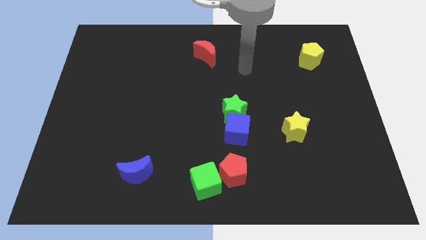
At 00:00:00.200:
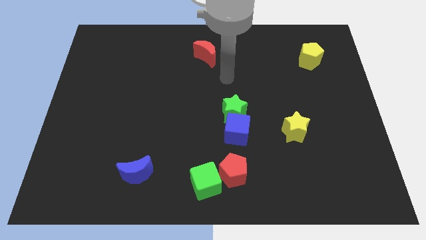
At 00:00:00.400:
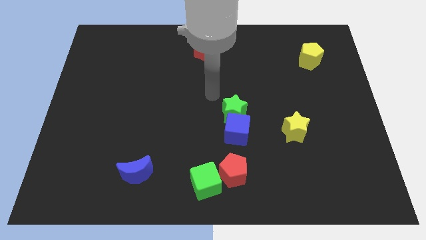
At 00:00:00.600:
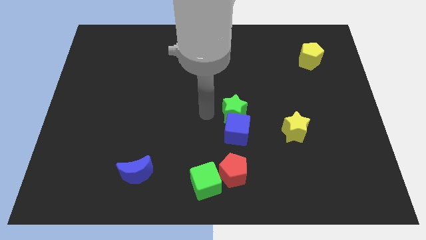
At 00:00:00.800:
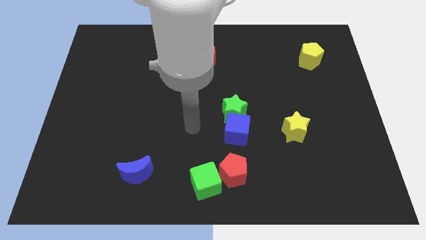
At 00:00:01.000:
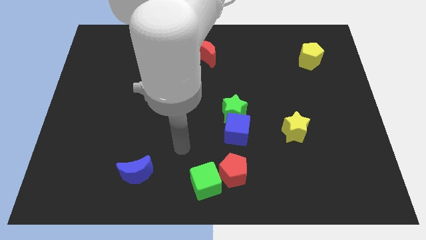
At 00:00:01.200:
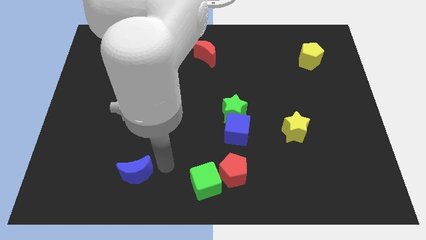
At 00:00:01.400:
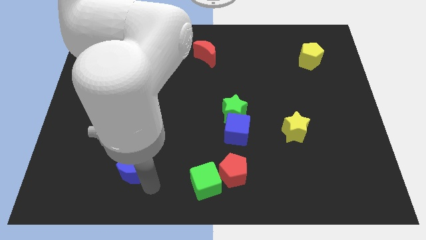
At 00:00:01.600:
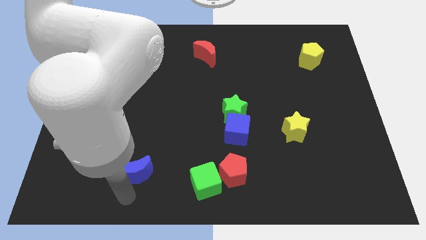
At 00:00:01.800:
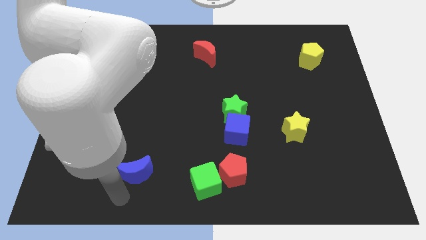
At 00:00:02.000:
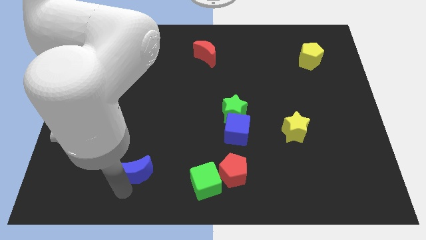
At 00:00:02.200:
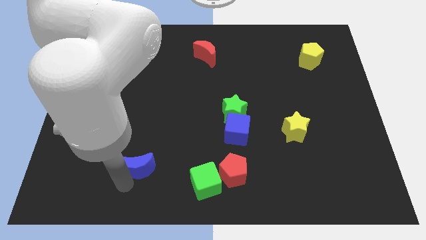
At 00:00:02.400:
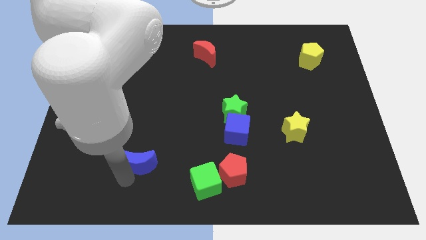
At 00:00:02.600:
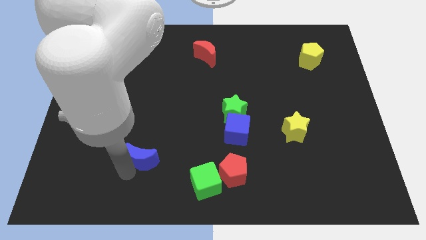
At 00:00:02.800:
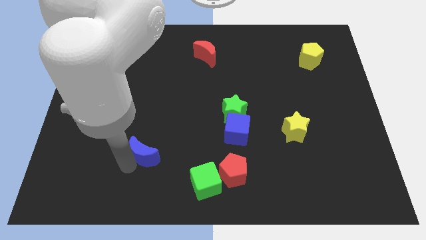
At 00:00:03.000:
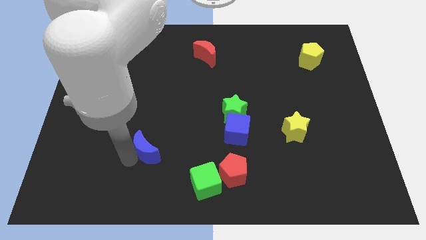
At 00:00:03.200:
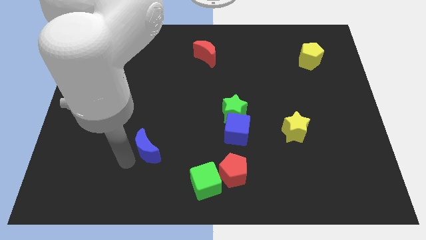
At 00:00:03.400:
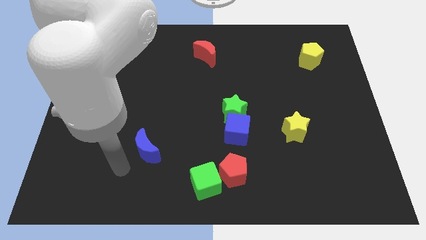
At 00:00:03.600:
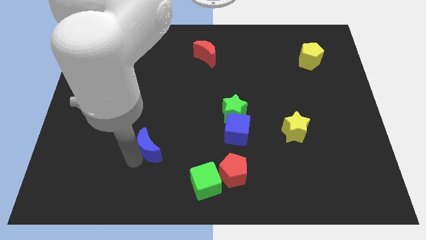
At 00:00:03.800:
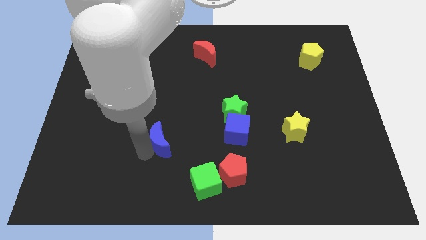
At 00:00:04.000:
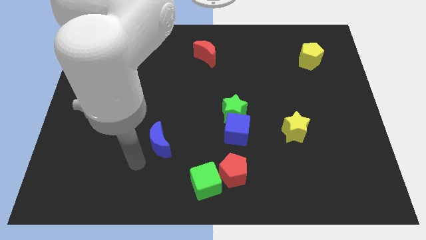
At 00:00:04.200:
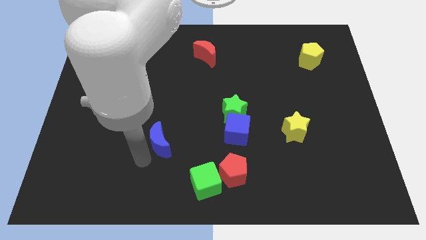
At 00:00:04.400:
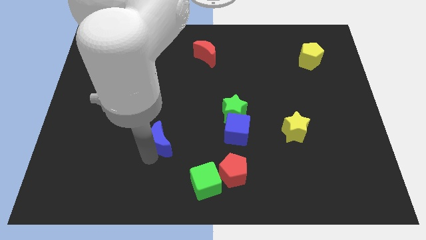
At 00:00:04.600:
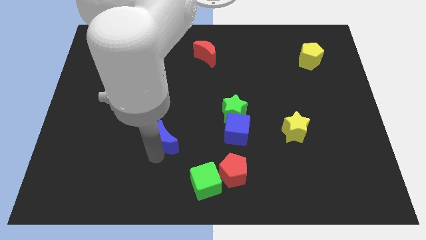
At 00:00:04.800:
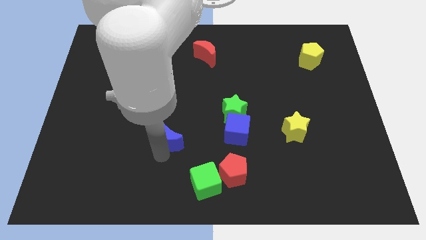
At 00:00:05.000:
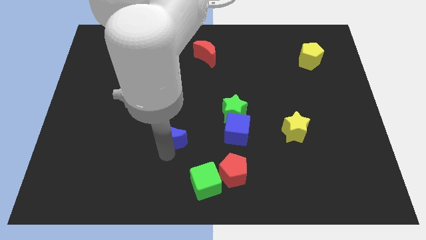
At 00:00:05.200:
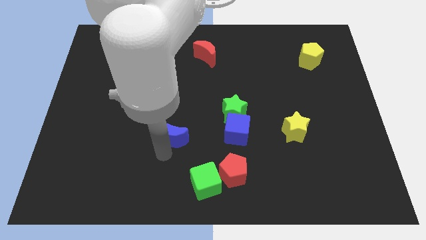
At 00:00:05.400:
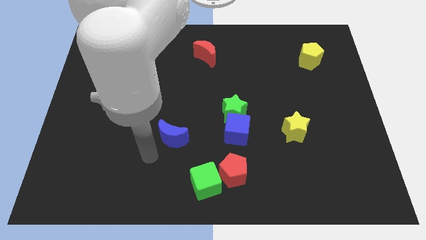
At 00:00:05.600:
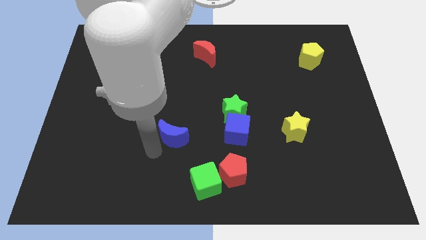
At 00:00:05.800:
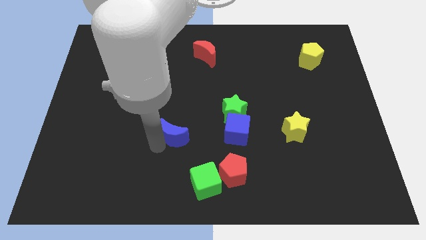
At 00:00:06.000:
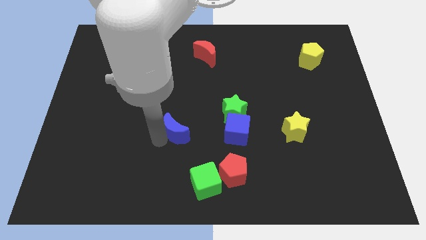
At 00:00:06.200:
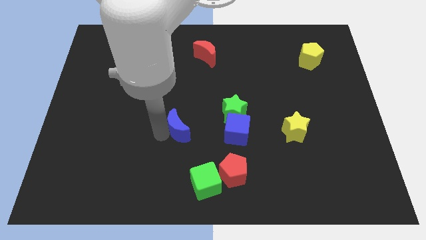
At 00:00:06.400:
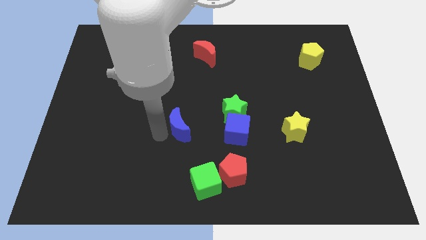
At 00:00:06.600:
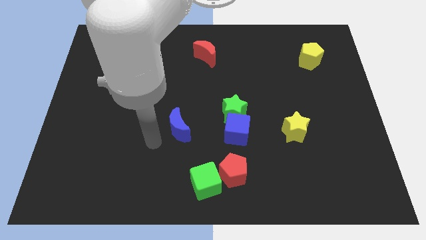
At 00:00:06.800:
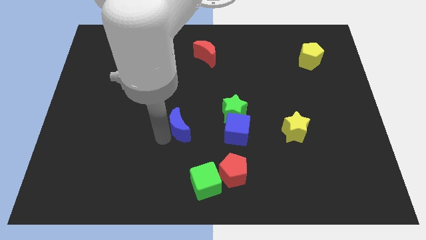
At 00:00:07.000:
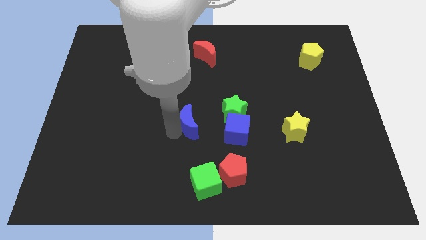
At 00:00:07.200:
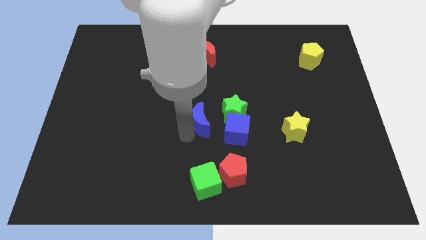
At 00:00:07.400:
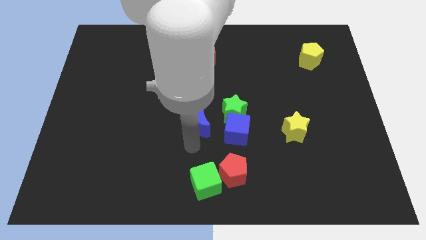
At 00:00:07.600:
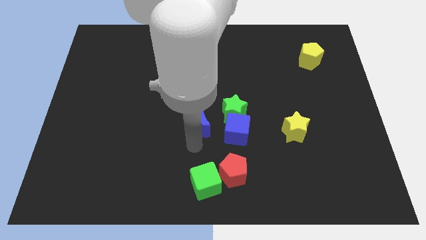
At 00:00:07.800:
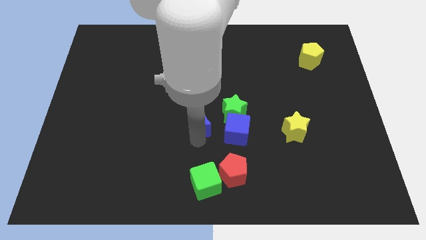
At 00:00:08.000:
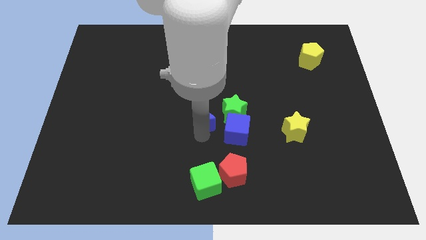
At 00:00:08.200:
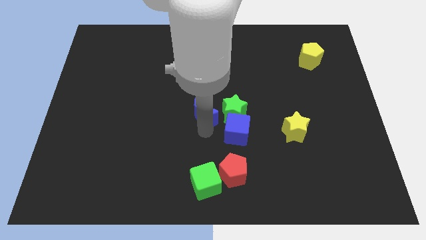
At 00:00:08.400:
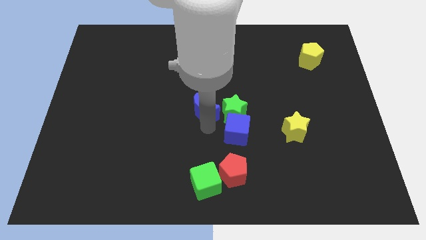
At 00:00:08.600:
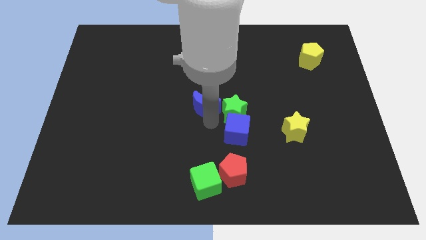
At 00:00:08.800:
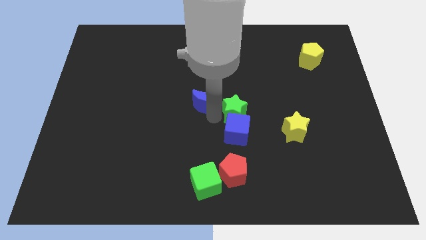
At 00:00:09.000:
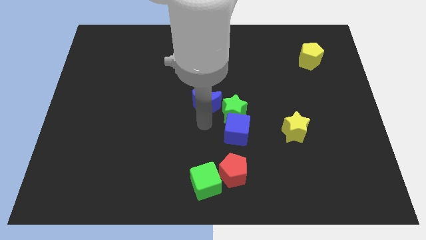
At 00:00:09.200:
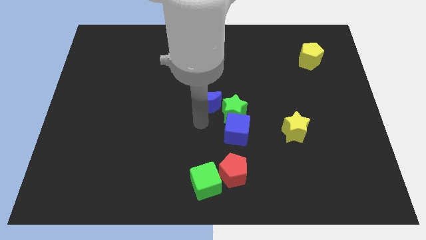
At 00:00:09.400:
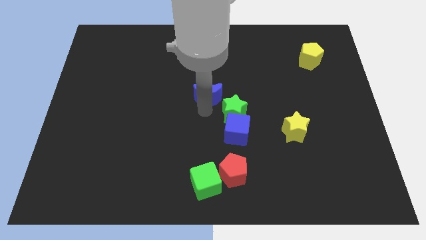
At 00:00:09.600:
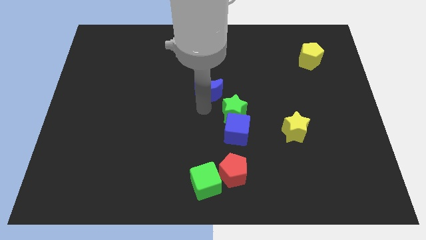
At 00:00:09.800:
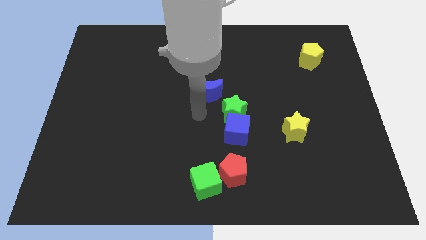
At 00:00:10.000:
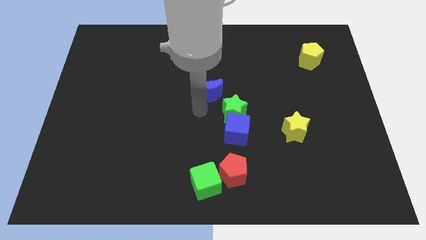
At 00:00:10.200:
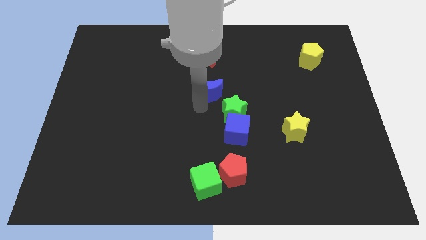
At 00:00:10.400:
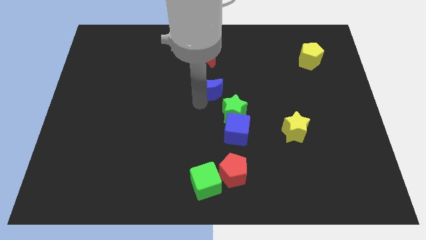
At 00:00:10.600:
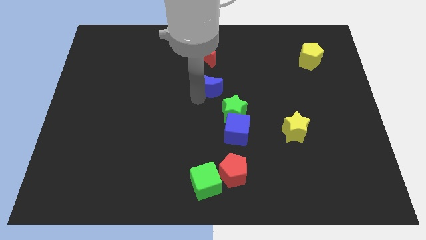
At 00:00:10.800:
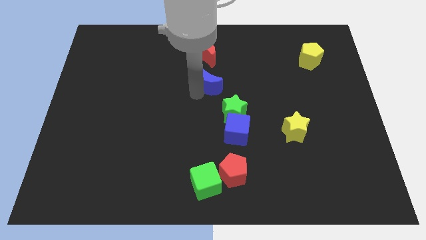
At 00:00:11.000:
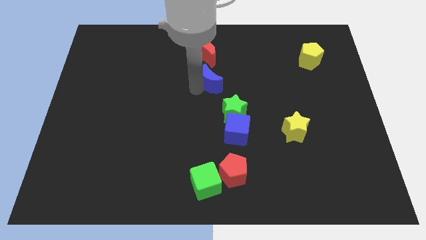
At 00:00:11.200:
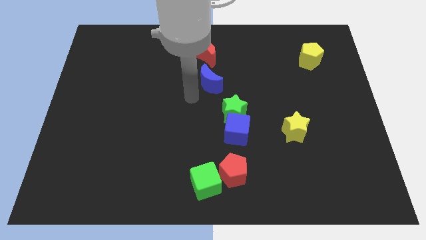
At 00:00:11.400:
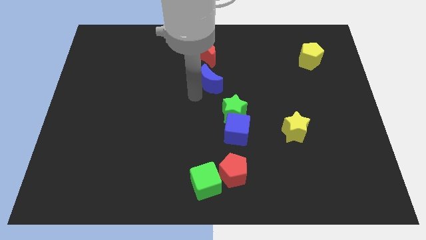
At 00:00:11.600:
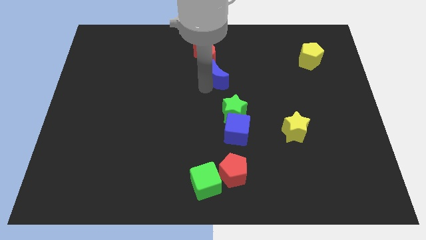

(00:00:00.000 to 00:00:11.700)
push the blue moon to the bottom right side of the red moon

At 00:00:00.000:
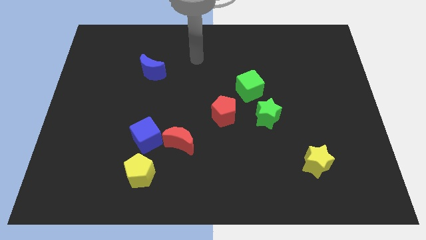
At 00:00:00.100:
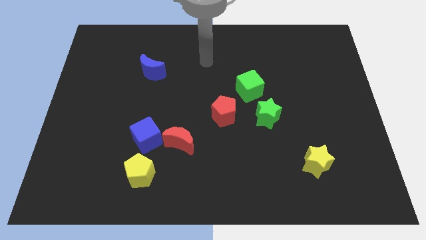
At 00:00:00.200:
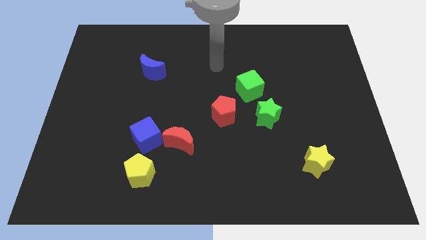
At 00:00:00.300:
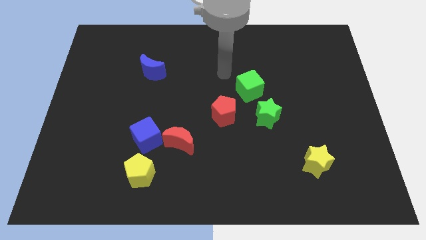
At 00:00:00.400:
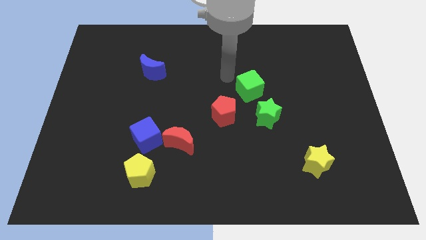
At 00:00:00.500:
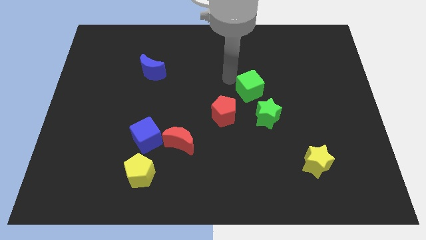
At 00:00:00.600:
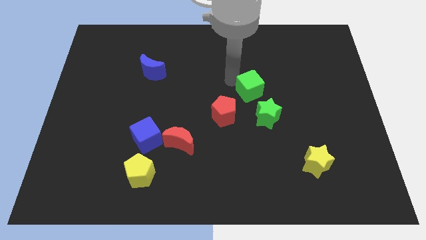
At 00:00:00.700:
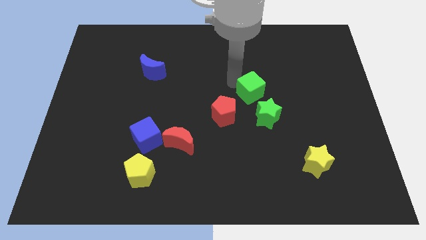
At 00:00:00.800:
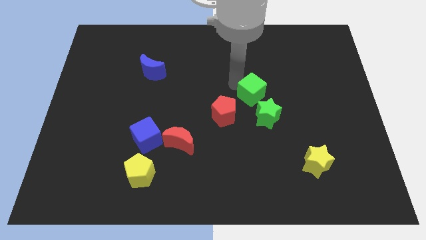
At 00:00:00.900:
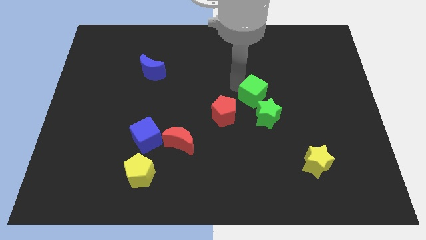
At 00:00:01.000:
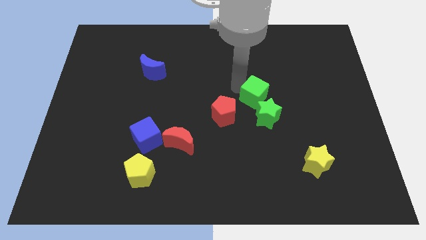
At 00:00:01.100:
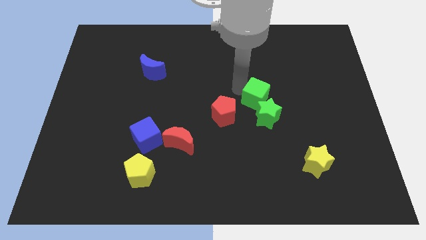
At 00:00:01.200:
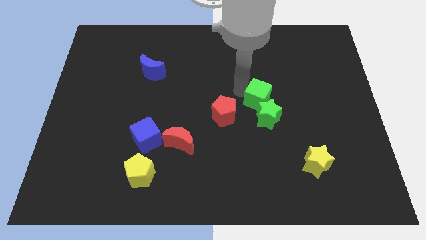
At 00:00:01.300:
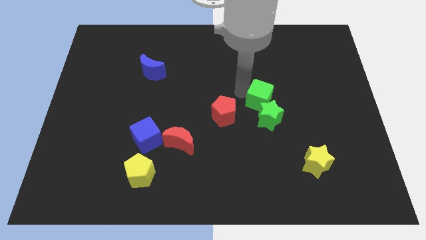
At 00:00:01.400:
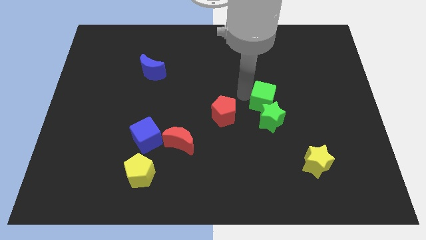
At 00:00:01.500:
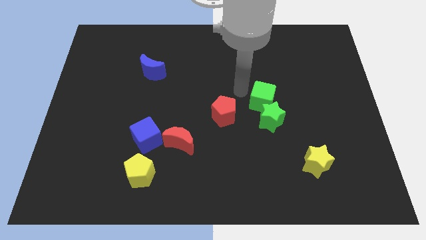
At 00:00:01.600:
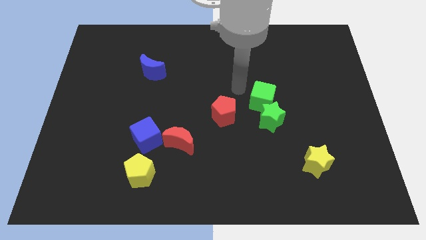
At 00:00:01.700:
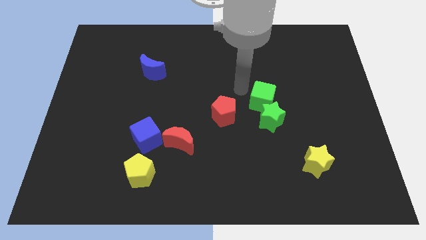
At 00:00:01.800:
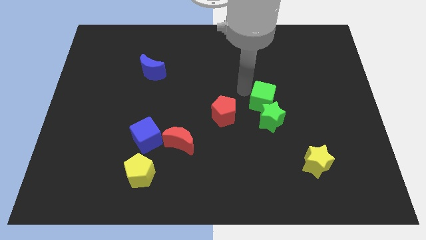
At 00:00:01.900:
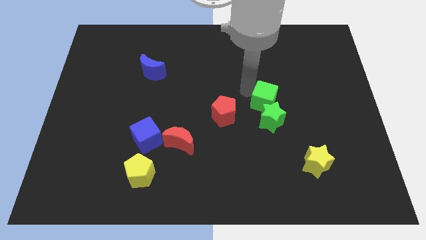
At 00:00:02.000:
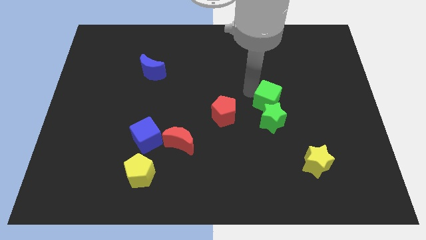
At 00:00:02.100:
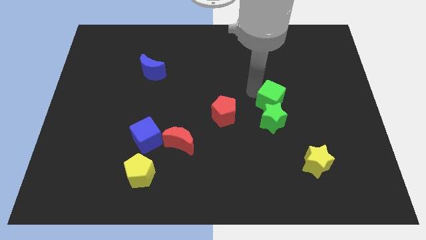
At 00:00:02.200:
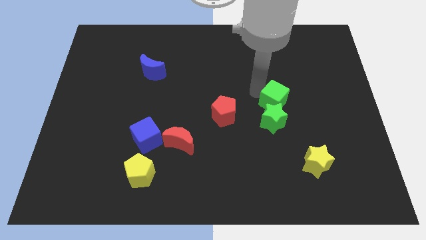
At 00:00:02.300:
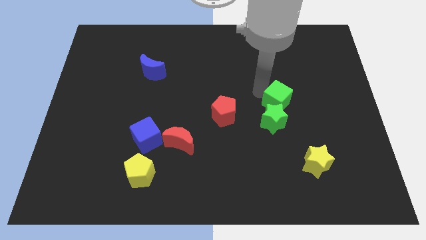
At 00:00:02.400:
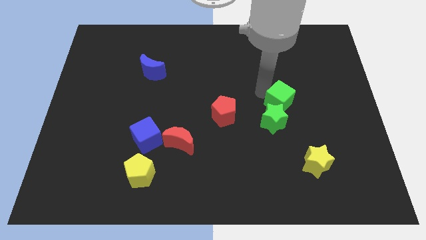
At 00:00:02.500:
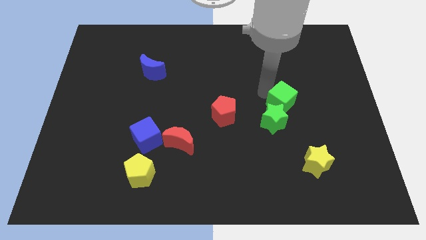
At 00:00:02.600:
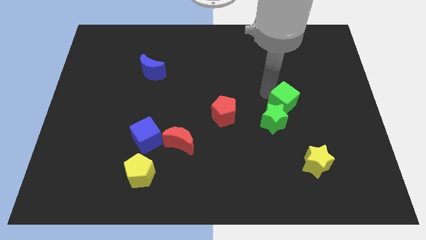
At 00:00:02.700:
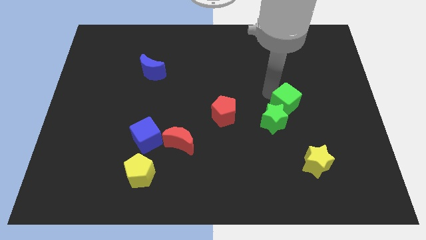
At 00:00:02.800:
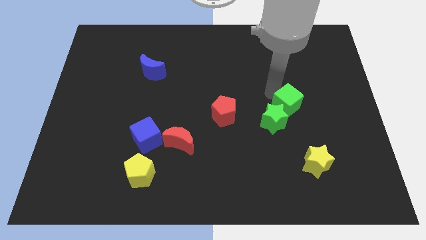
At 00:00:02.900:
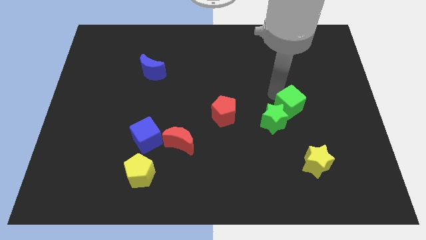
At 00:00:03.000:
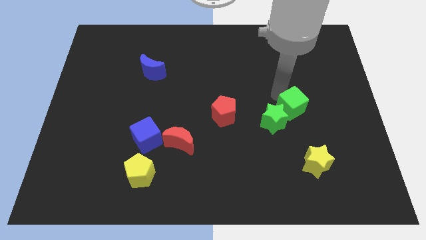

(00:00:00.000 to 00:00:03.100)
push the green cube to the top of the yellow star
